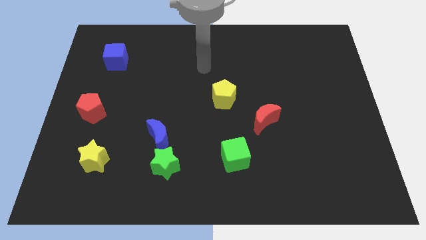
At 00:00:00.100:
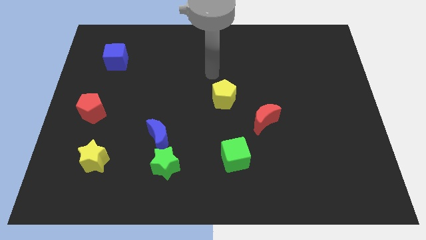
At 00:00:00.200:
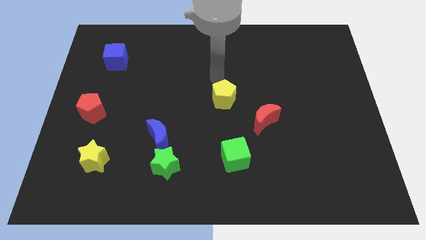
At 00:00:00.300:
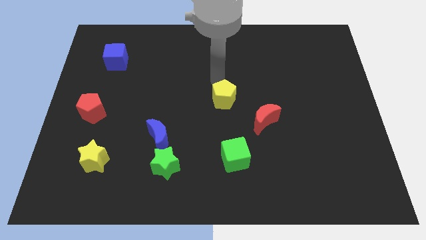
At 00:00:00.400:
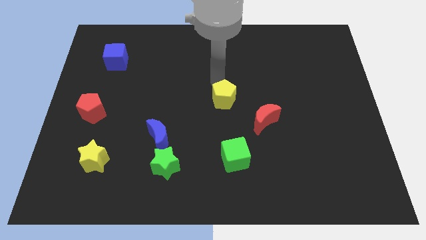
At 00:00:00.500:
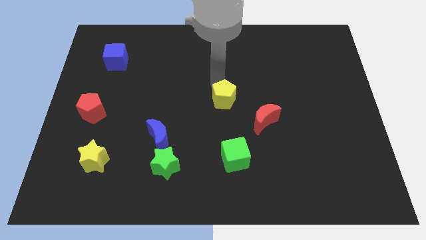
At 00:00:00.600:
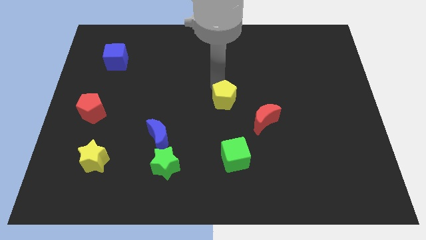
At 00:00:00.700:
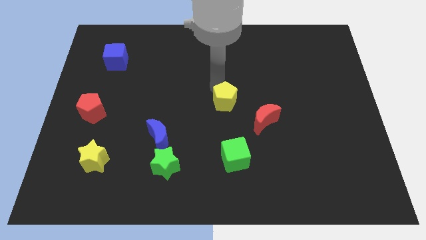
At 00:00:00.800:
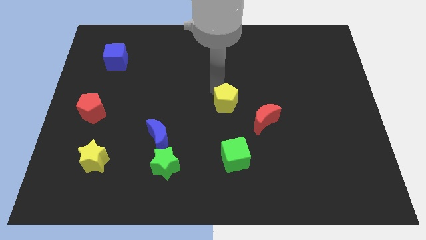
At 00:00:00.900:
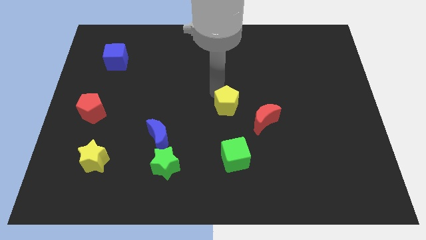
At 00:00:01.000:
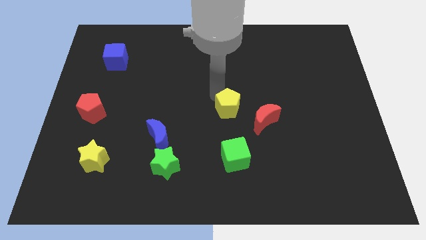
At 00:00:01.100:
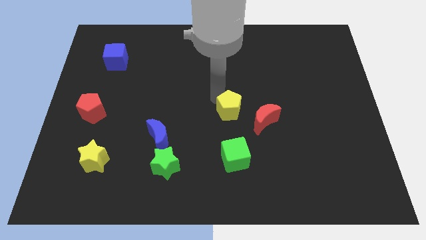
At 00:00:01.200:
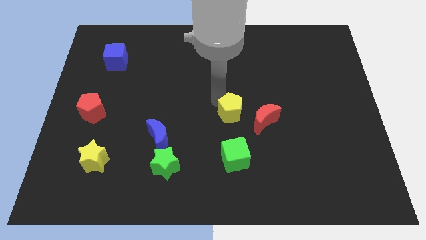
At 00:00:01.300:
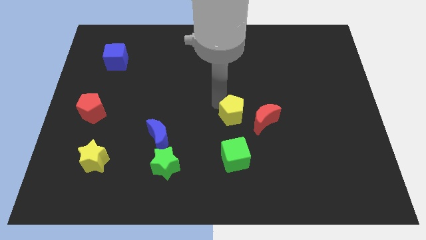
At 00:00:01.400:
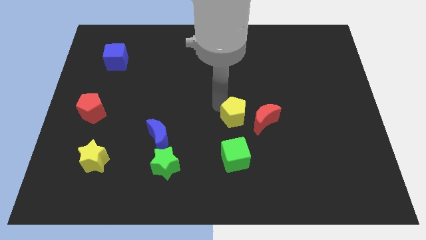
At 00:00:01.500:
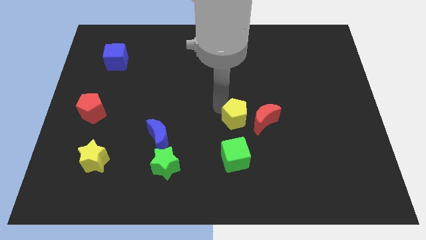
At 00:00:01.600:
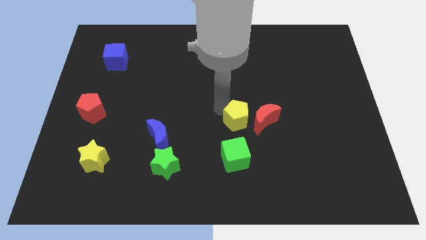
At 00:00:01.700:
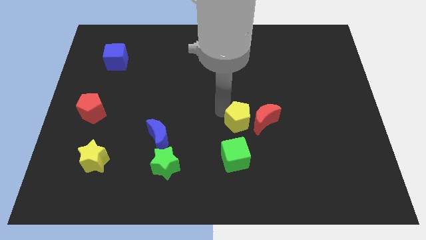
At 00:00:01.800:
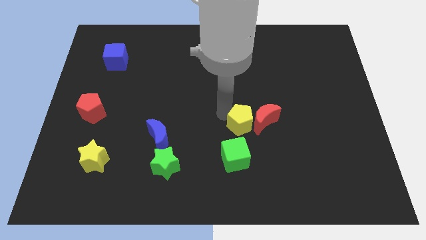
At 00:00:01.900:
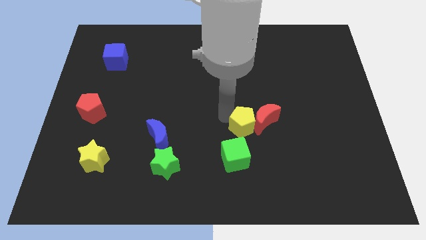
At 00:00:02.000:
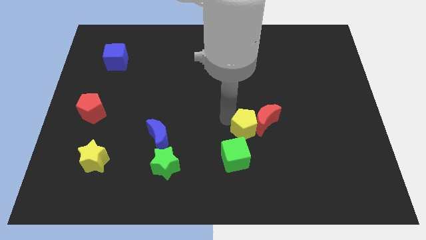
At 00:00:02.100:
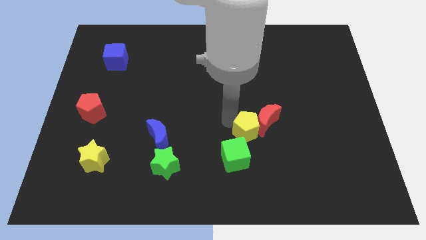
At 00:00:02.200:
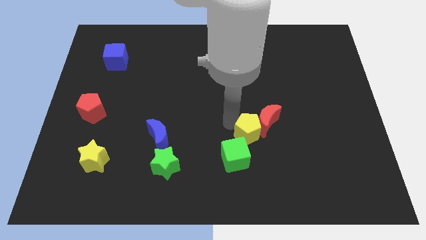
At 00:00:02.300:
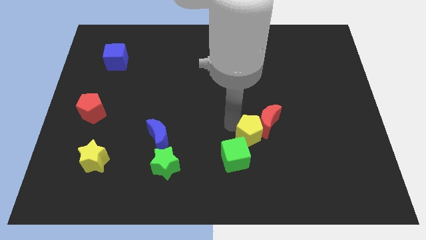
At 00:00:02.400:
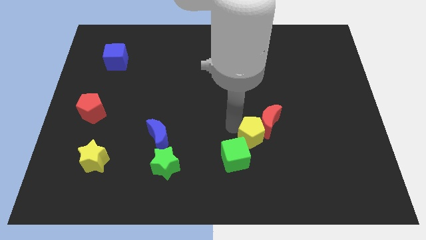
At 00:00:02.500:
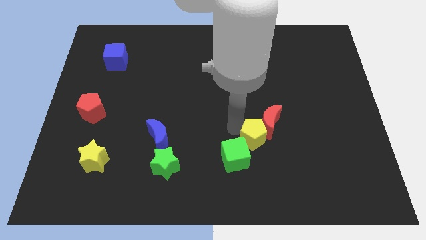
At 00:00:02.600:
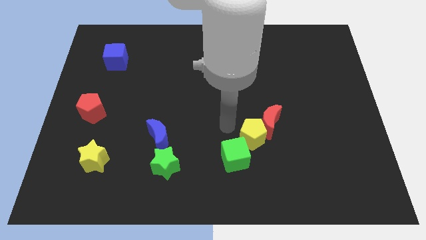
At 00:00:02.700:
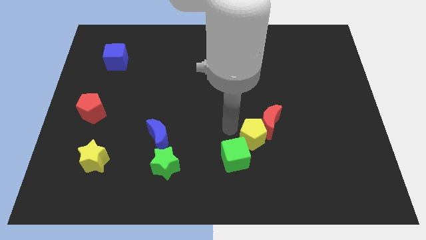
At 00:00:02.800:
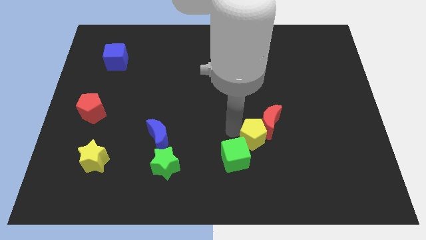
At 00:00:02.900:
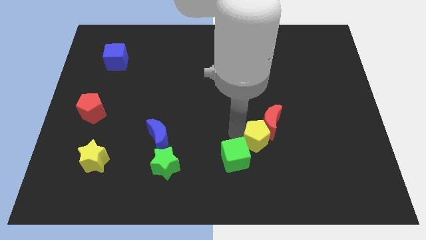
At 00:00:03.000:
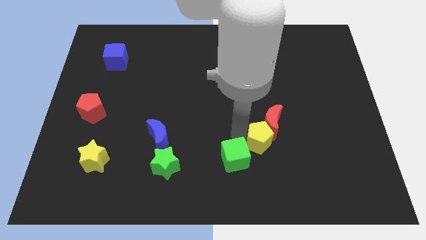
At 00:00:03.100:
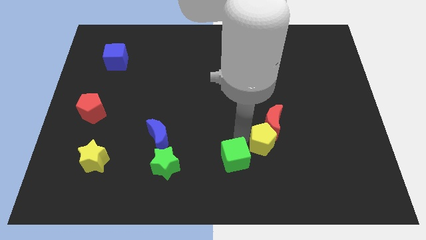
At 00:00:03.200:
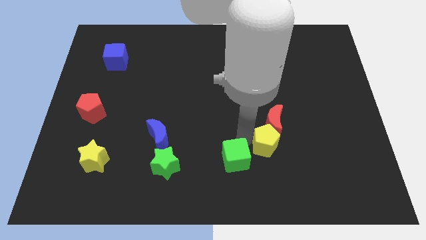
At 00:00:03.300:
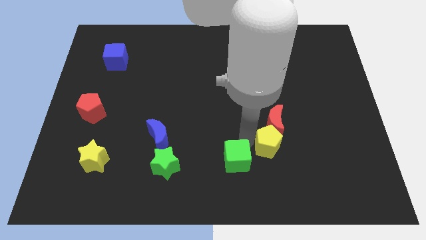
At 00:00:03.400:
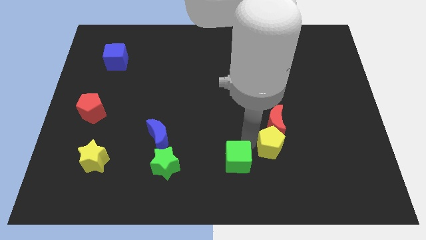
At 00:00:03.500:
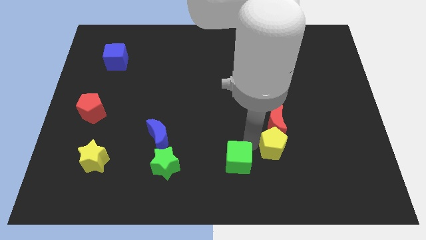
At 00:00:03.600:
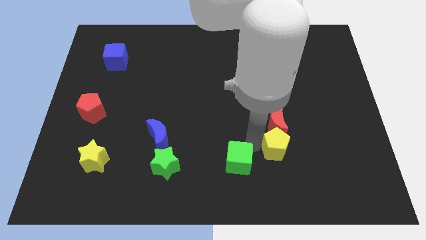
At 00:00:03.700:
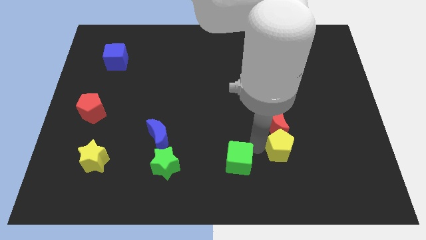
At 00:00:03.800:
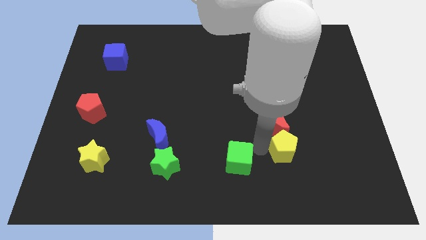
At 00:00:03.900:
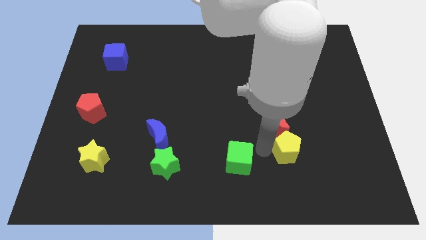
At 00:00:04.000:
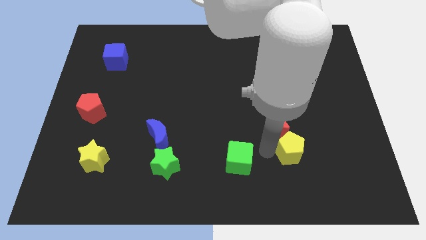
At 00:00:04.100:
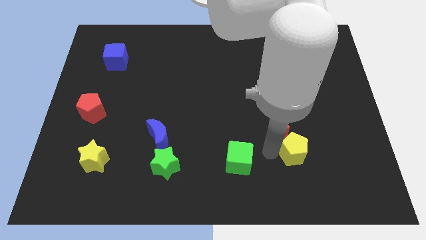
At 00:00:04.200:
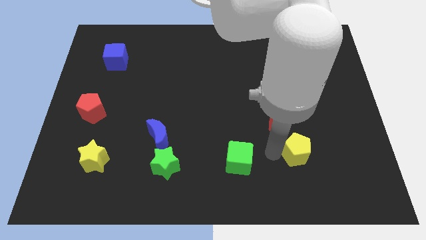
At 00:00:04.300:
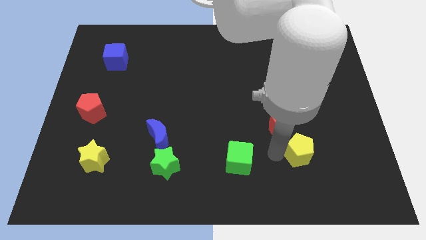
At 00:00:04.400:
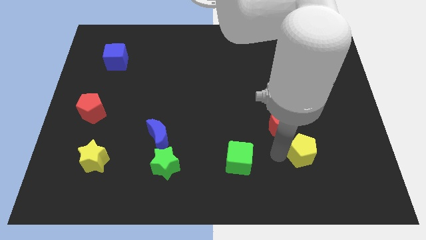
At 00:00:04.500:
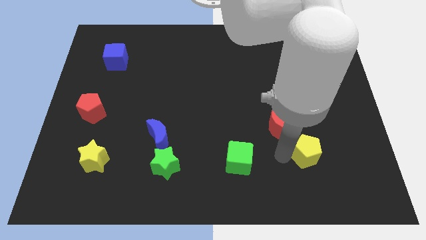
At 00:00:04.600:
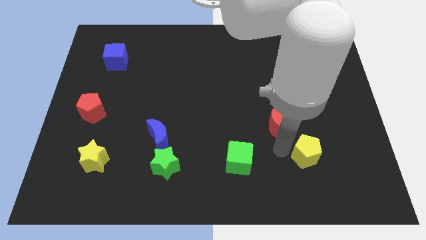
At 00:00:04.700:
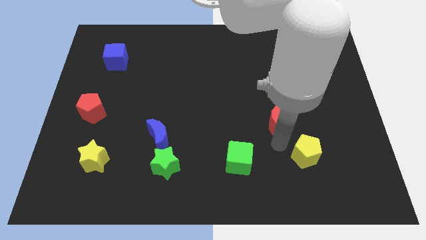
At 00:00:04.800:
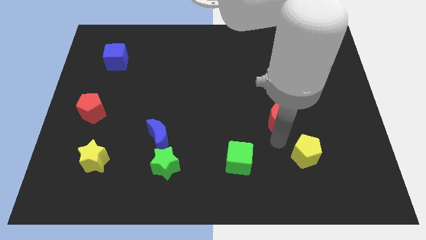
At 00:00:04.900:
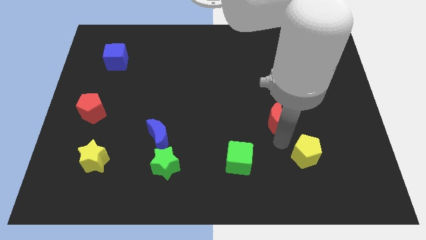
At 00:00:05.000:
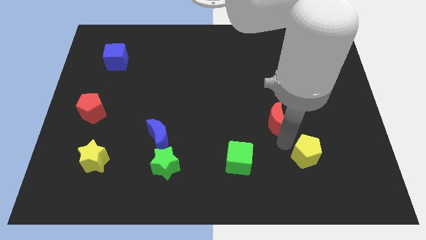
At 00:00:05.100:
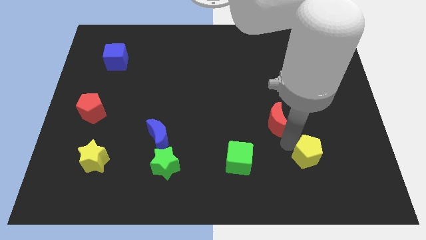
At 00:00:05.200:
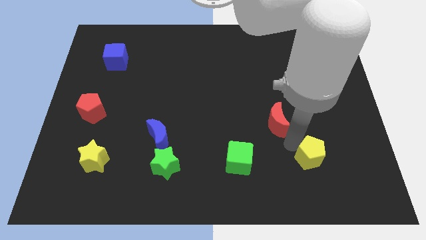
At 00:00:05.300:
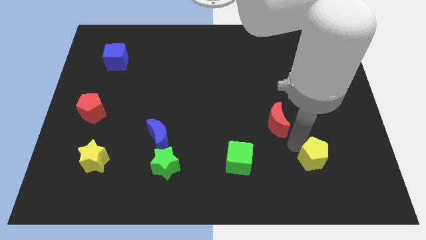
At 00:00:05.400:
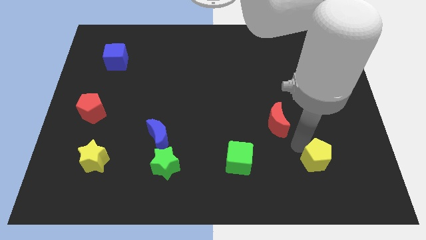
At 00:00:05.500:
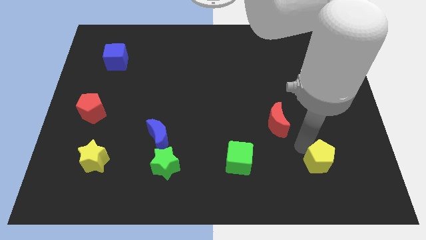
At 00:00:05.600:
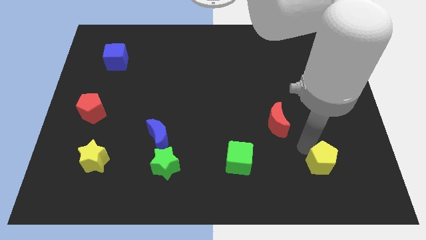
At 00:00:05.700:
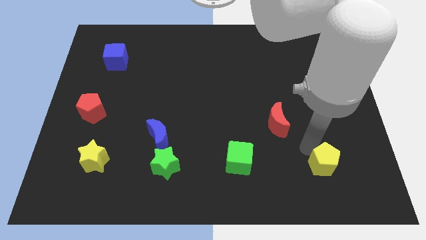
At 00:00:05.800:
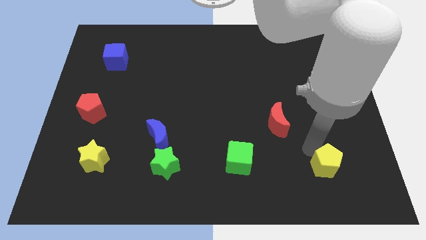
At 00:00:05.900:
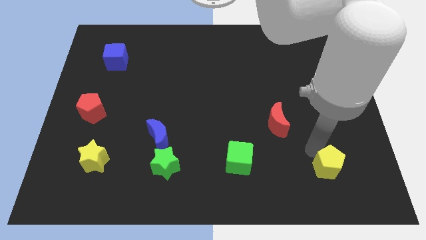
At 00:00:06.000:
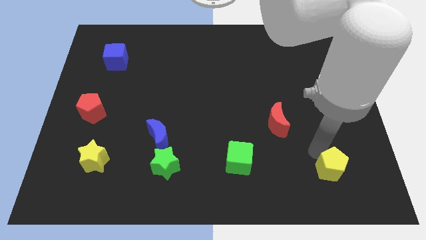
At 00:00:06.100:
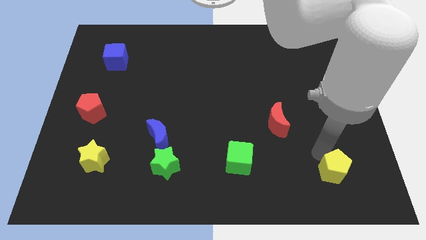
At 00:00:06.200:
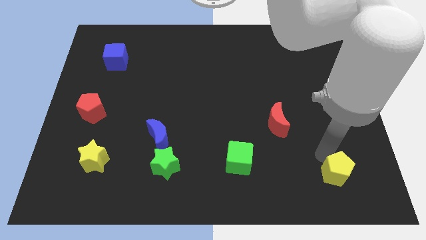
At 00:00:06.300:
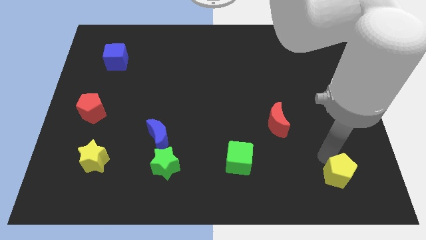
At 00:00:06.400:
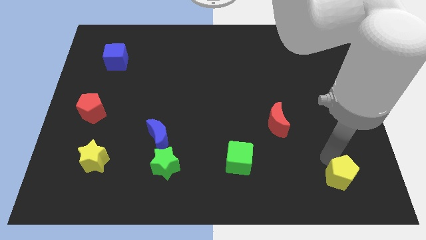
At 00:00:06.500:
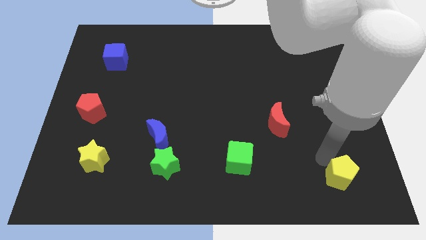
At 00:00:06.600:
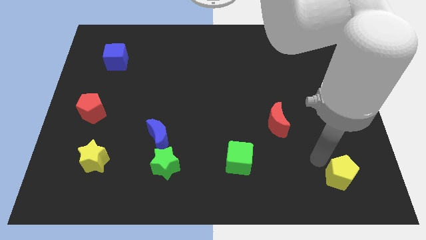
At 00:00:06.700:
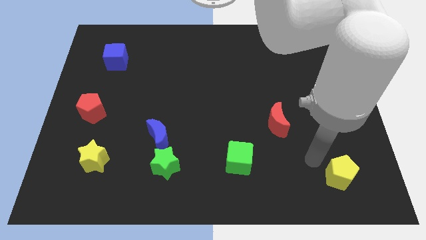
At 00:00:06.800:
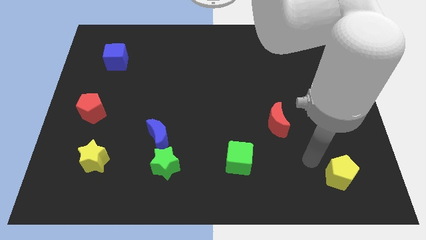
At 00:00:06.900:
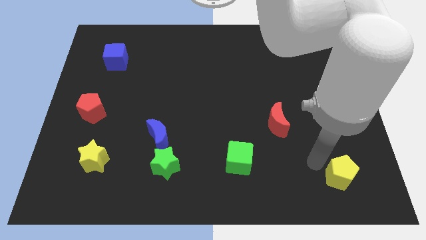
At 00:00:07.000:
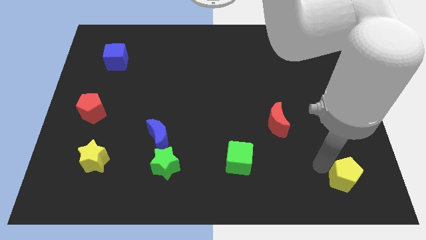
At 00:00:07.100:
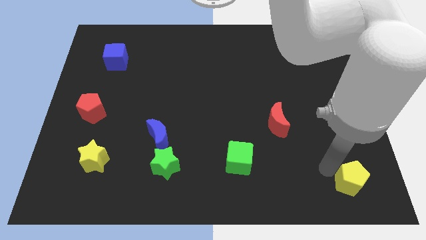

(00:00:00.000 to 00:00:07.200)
push the yellow pentagon to the bottom right of the board
